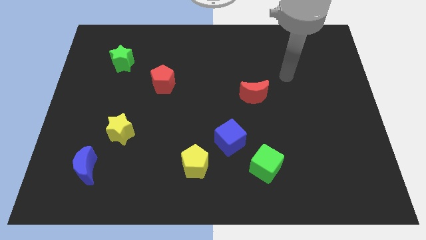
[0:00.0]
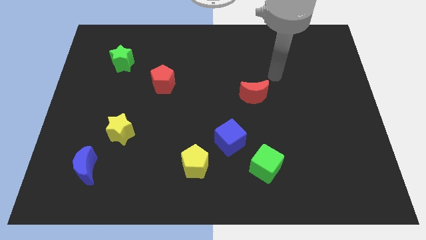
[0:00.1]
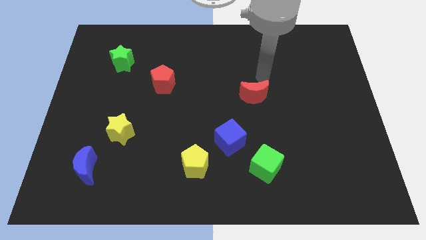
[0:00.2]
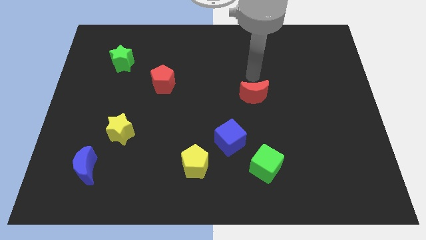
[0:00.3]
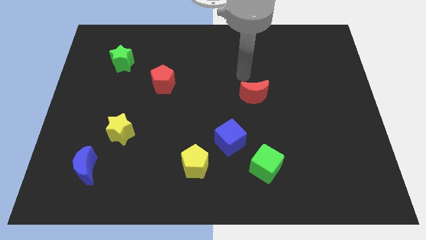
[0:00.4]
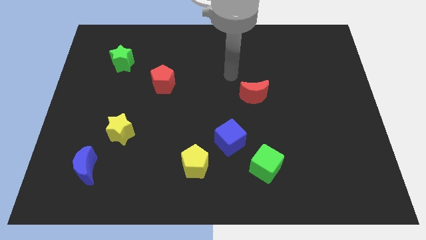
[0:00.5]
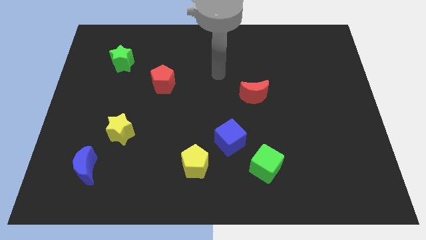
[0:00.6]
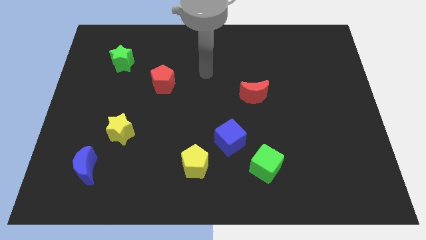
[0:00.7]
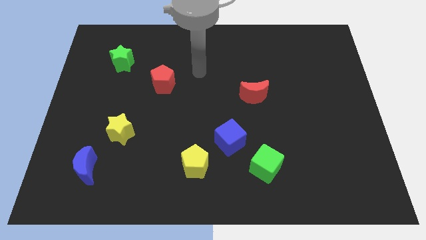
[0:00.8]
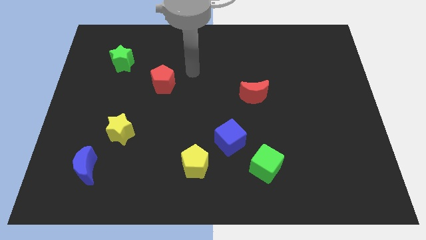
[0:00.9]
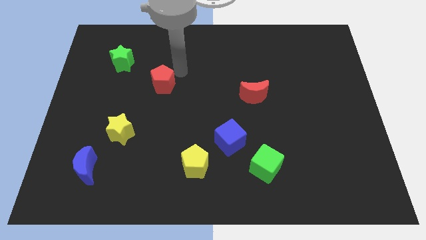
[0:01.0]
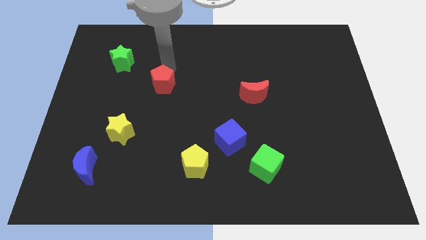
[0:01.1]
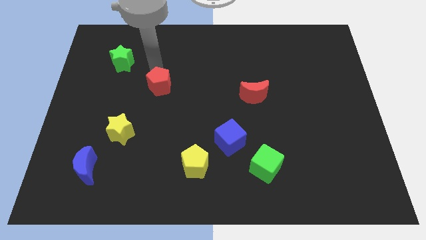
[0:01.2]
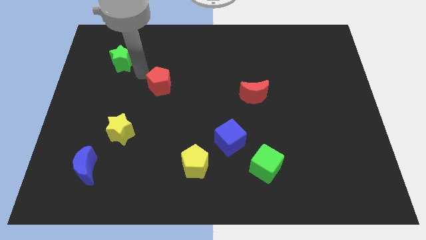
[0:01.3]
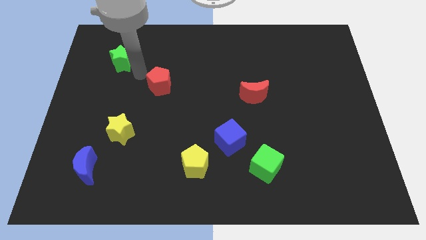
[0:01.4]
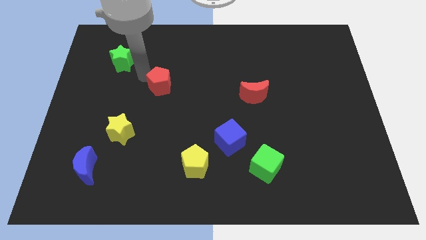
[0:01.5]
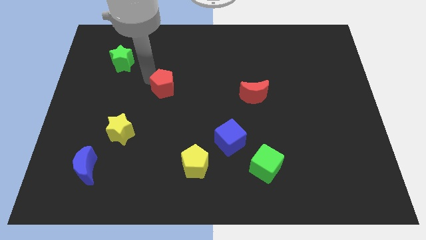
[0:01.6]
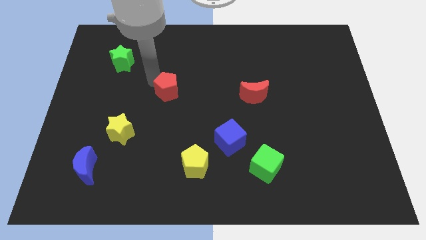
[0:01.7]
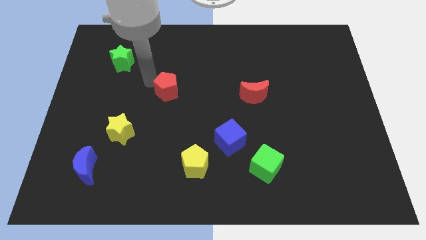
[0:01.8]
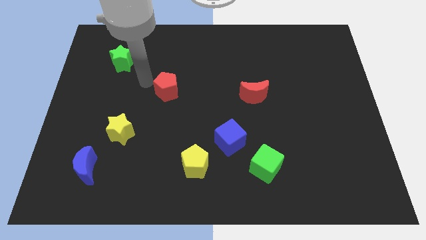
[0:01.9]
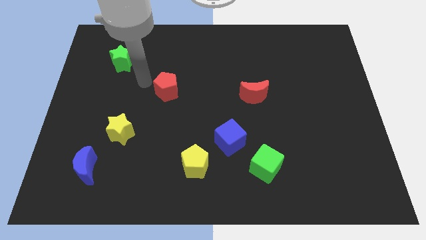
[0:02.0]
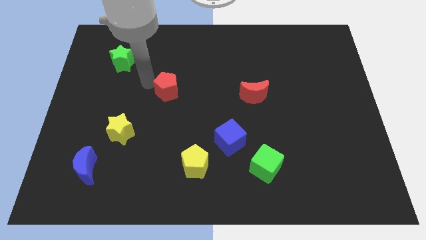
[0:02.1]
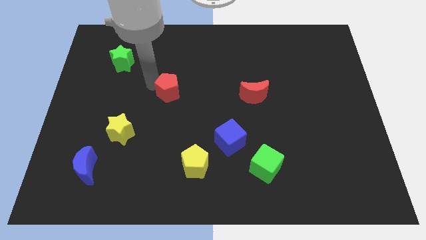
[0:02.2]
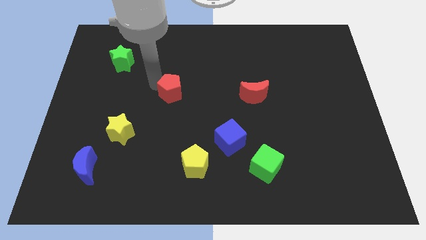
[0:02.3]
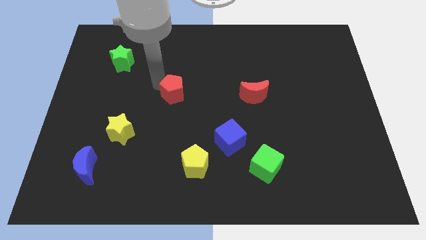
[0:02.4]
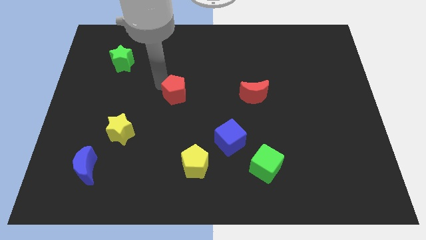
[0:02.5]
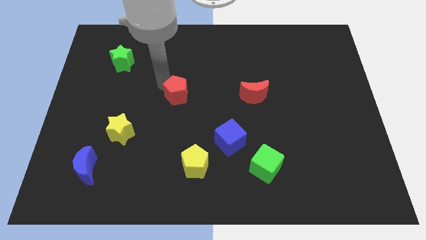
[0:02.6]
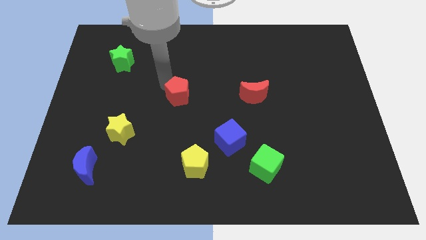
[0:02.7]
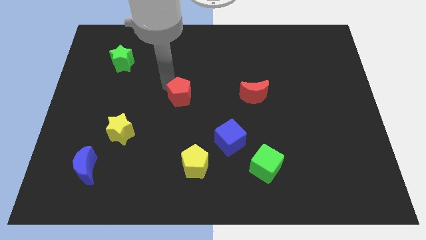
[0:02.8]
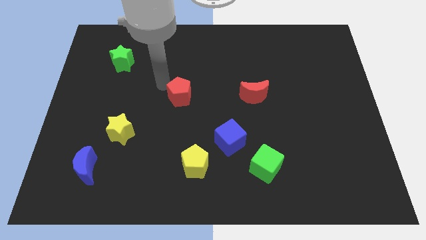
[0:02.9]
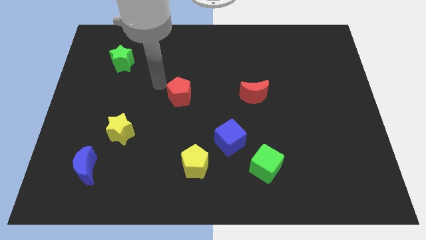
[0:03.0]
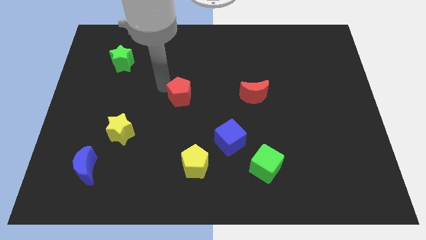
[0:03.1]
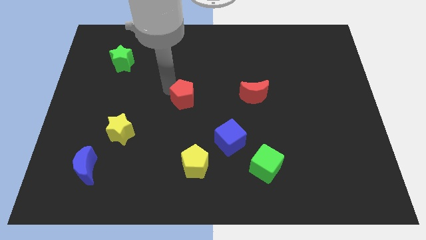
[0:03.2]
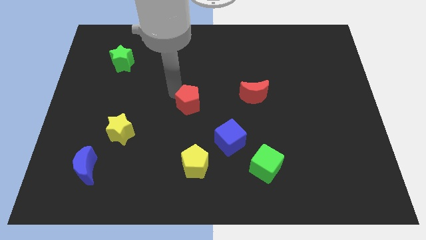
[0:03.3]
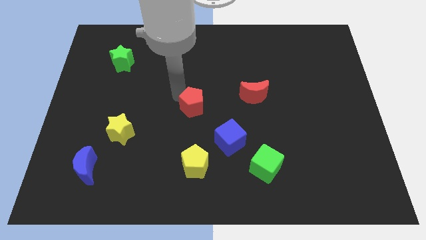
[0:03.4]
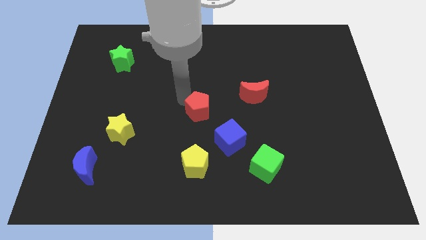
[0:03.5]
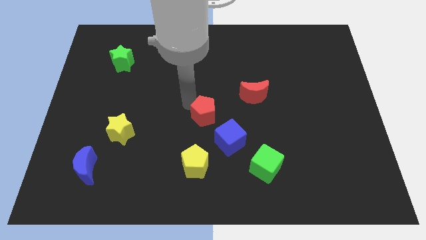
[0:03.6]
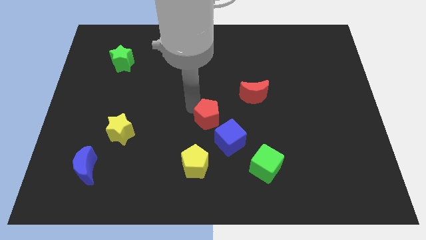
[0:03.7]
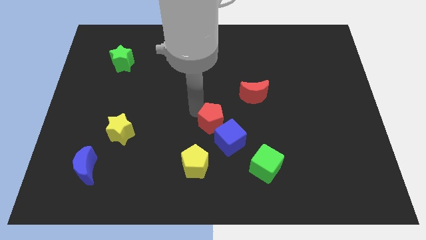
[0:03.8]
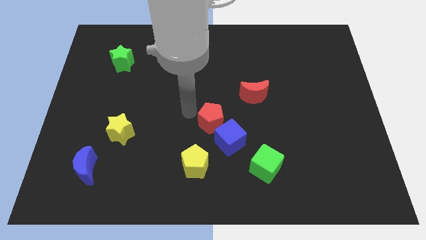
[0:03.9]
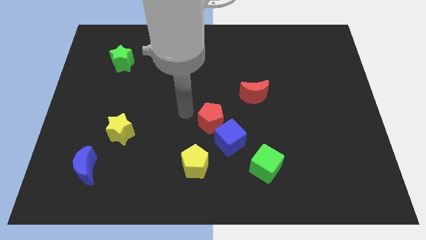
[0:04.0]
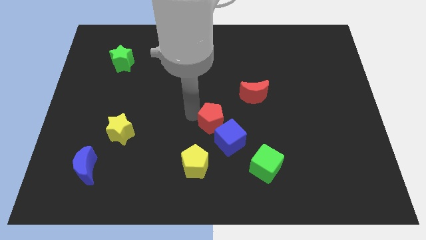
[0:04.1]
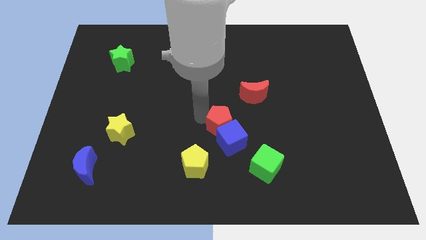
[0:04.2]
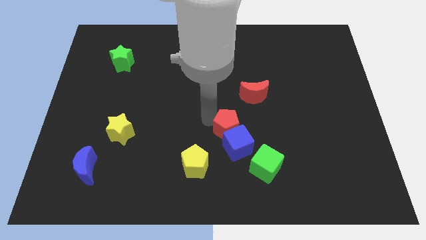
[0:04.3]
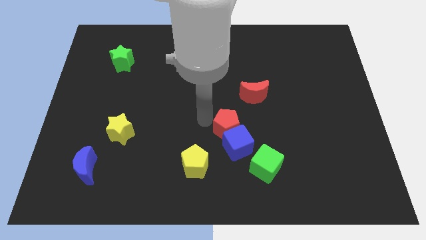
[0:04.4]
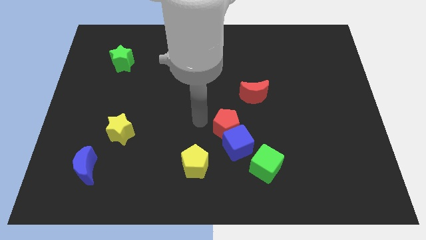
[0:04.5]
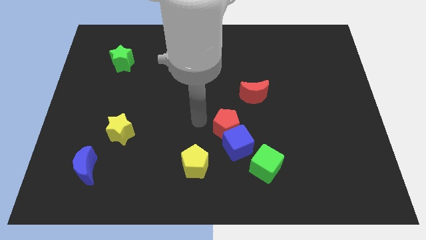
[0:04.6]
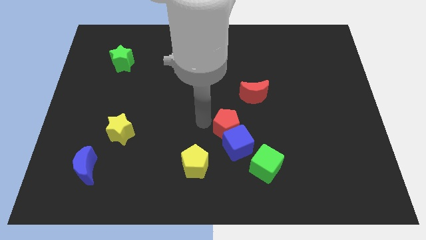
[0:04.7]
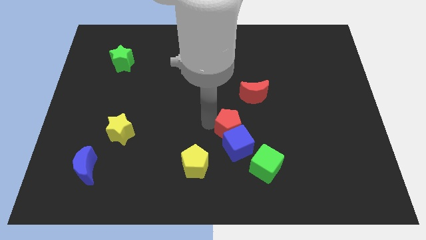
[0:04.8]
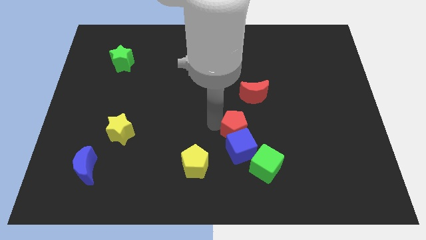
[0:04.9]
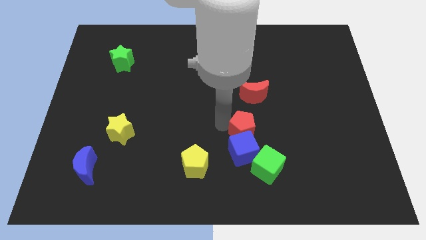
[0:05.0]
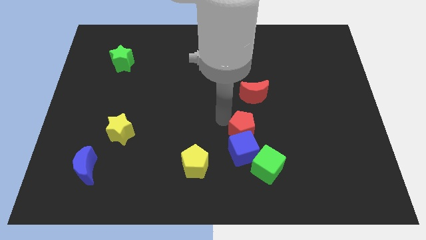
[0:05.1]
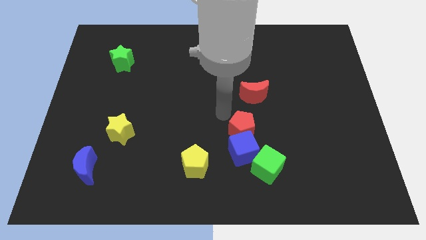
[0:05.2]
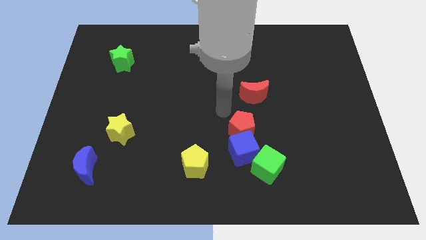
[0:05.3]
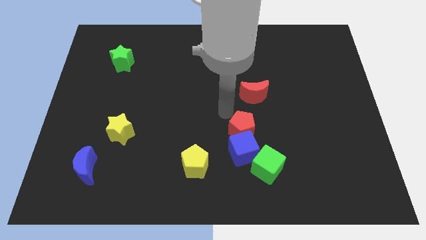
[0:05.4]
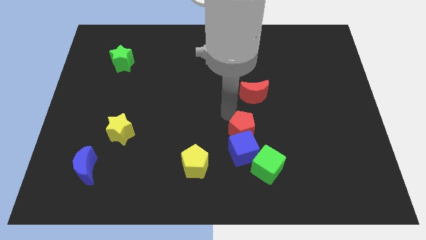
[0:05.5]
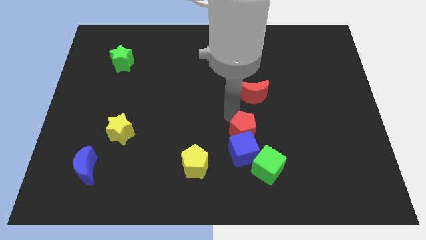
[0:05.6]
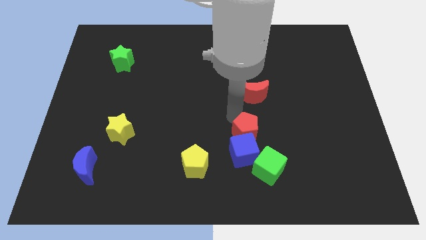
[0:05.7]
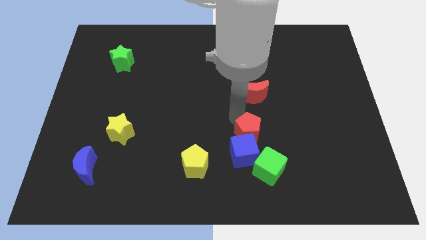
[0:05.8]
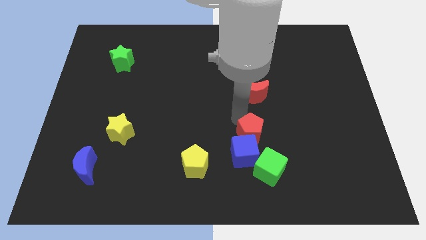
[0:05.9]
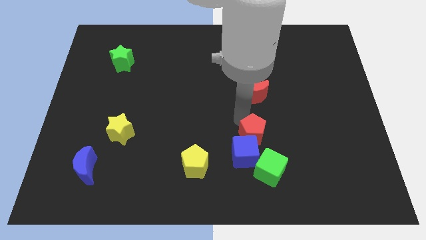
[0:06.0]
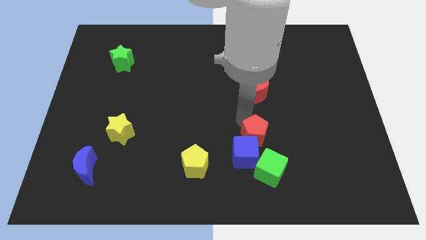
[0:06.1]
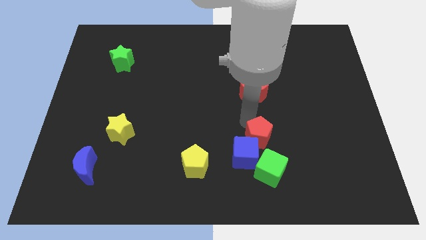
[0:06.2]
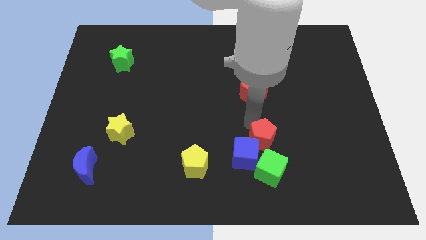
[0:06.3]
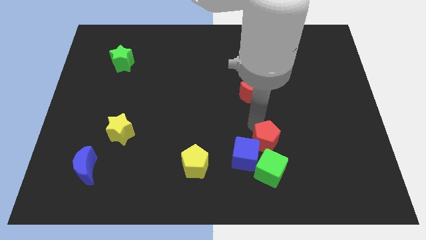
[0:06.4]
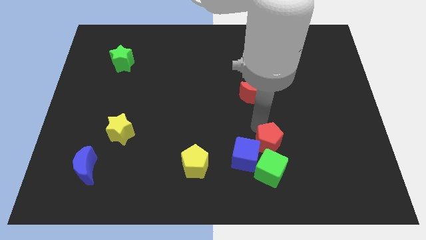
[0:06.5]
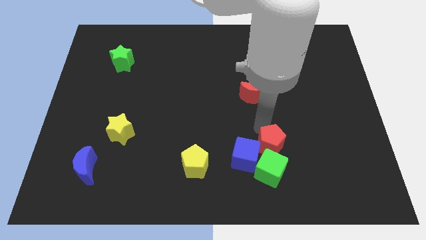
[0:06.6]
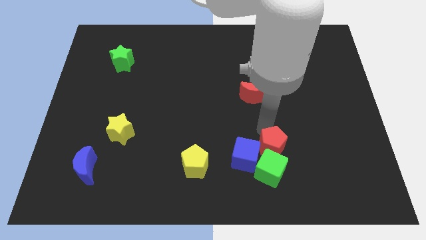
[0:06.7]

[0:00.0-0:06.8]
move the red pentagon towards the green cube

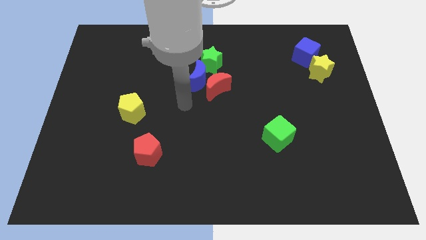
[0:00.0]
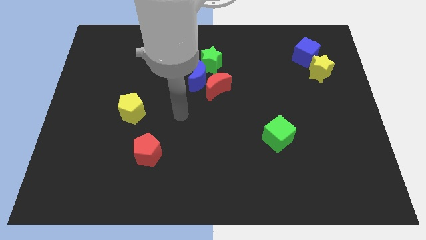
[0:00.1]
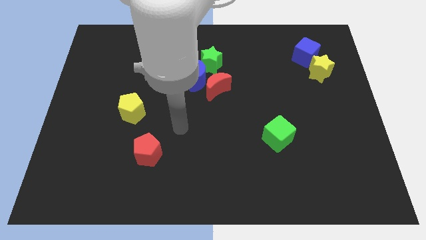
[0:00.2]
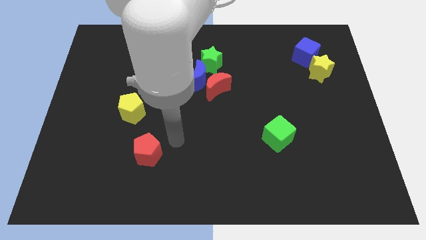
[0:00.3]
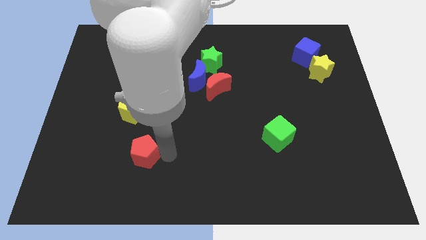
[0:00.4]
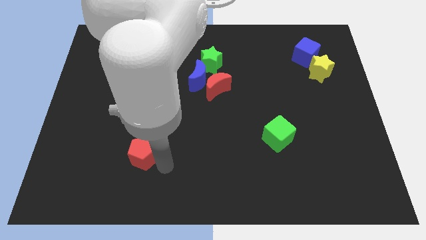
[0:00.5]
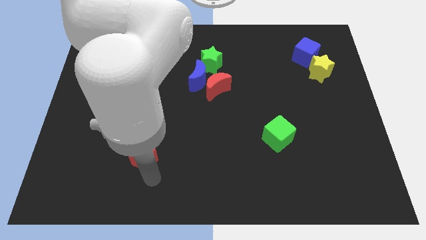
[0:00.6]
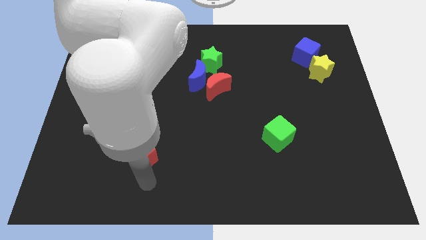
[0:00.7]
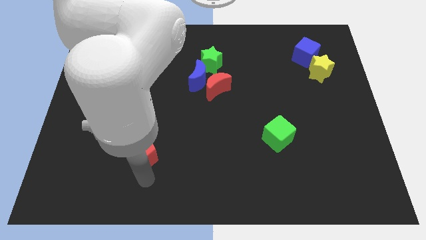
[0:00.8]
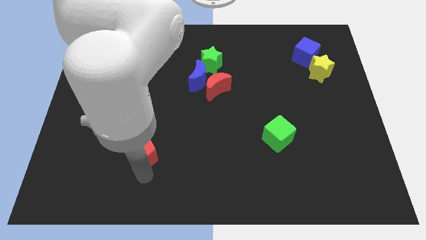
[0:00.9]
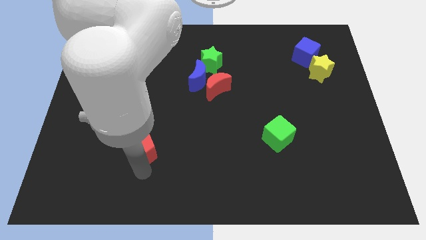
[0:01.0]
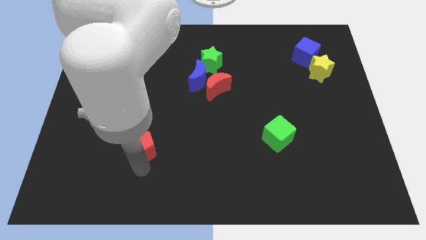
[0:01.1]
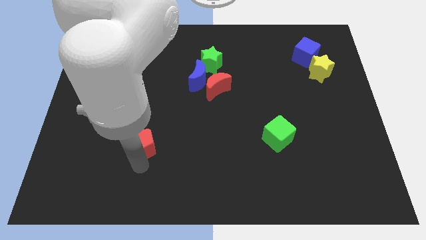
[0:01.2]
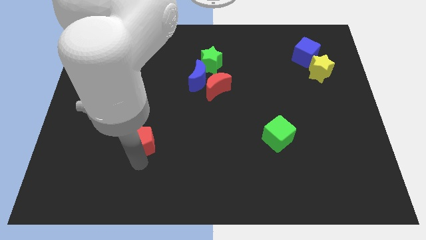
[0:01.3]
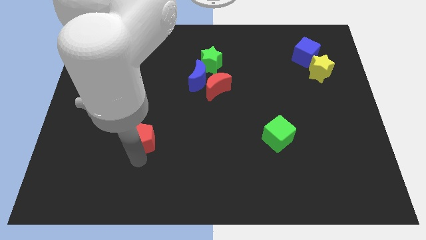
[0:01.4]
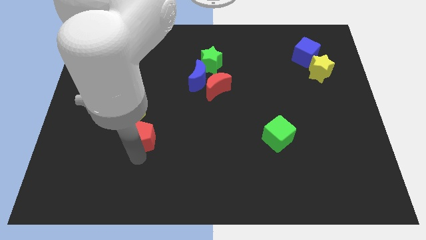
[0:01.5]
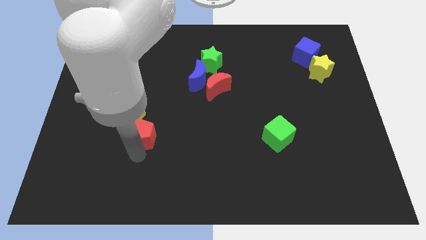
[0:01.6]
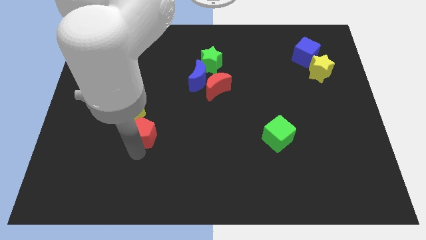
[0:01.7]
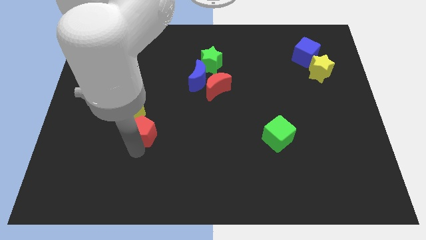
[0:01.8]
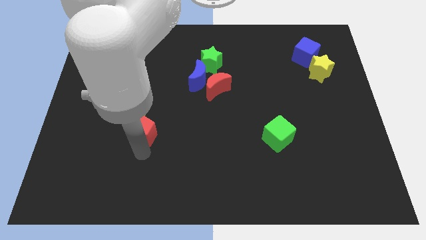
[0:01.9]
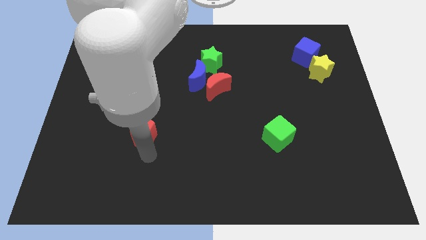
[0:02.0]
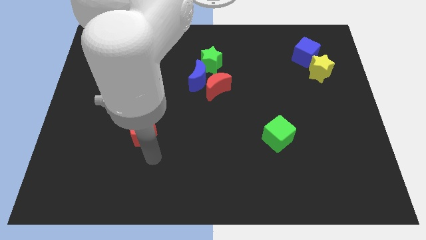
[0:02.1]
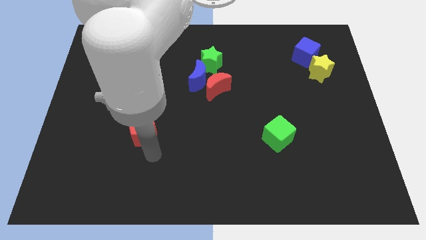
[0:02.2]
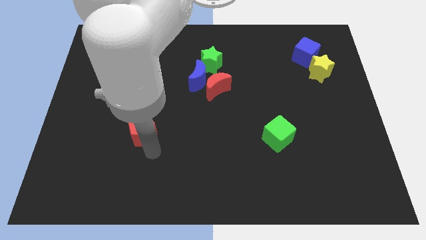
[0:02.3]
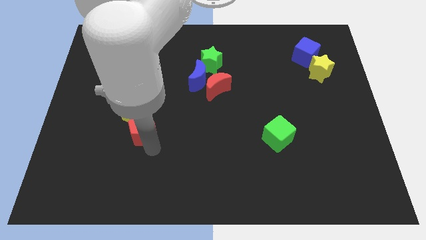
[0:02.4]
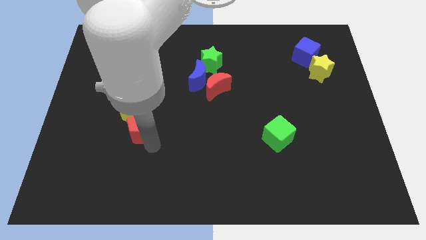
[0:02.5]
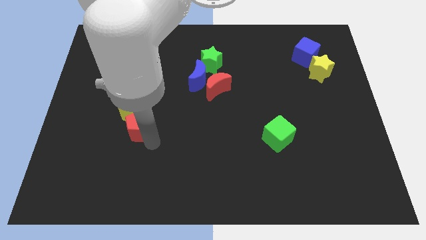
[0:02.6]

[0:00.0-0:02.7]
move the red pentagon close to the yellow pentagon
